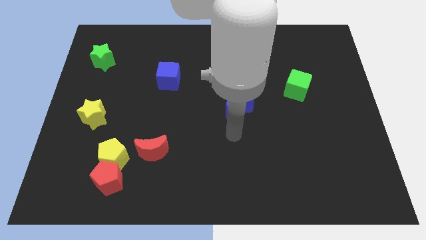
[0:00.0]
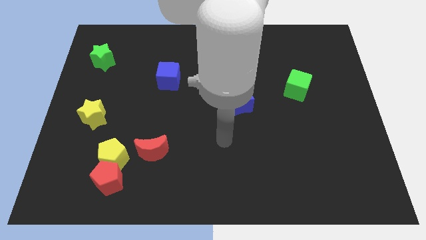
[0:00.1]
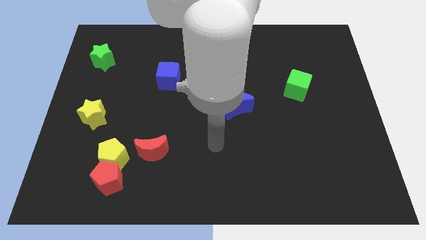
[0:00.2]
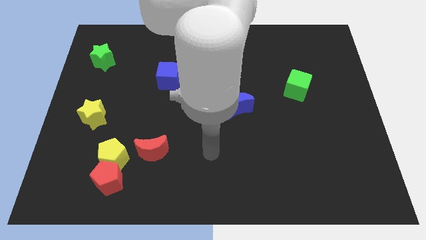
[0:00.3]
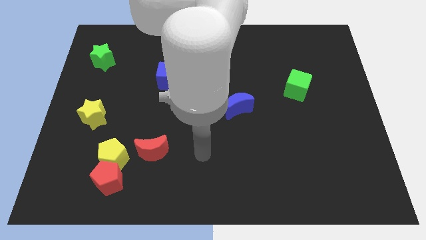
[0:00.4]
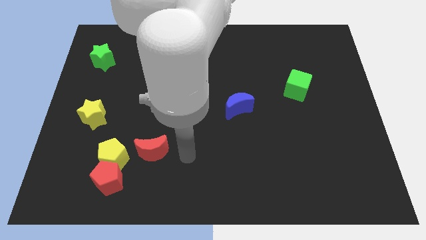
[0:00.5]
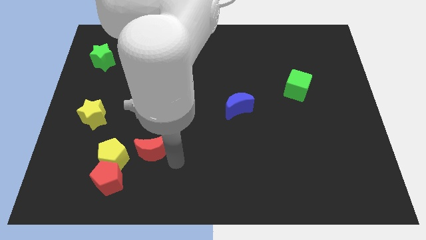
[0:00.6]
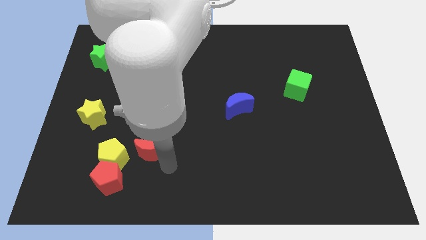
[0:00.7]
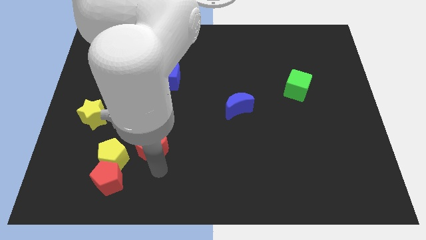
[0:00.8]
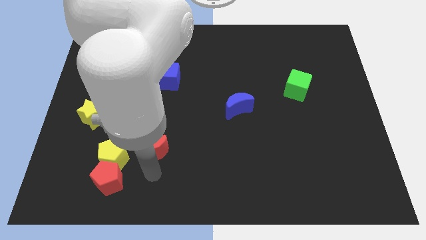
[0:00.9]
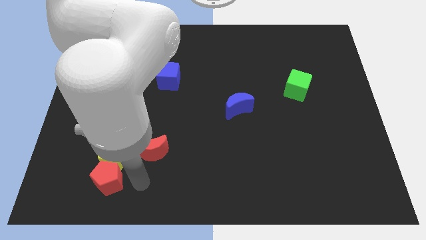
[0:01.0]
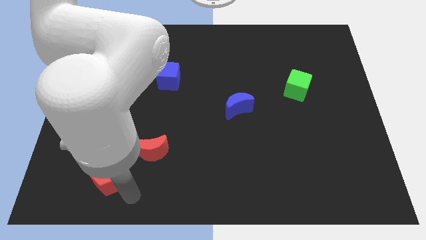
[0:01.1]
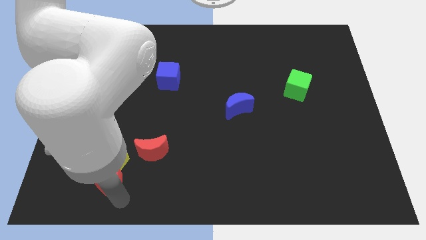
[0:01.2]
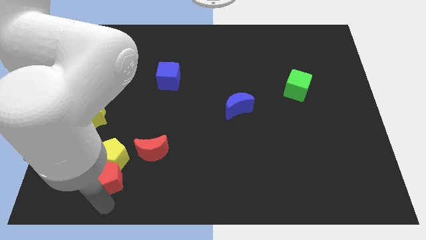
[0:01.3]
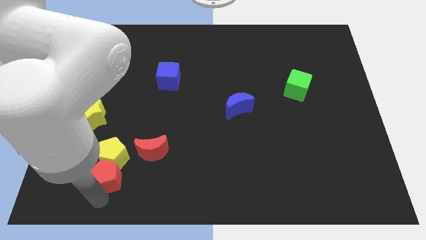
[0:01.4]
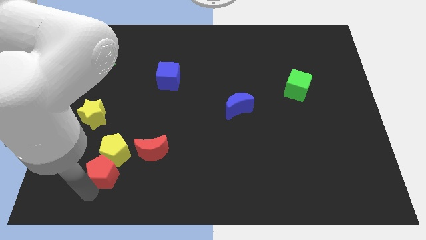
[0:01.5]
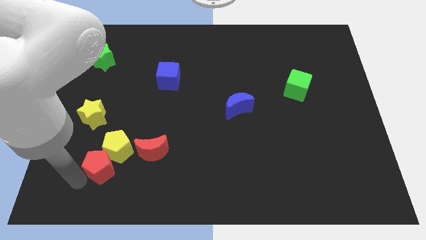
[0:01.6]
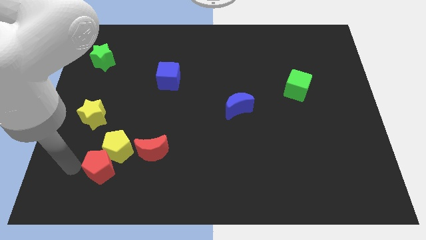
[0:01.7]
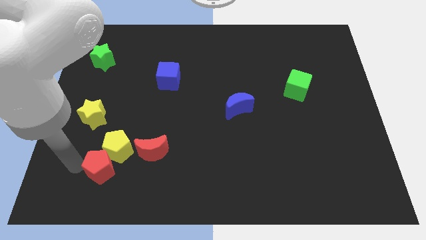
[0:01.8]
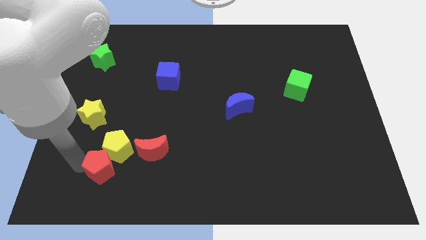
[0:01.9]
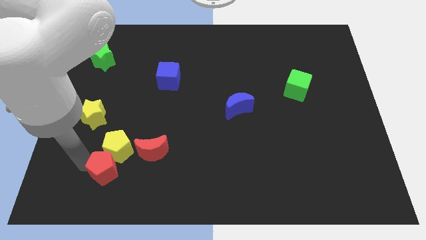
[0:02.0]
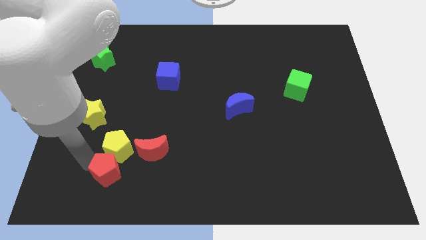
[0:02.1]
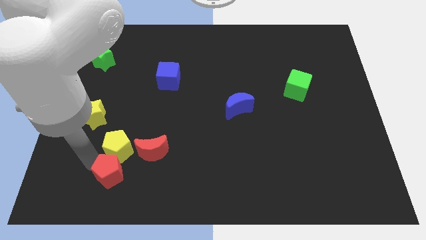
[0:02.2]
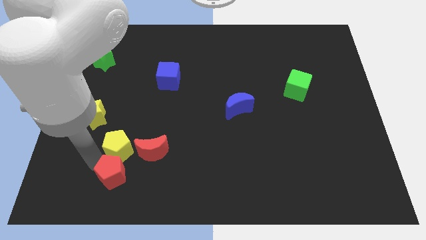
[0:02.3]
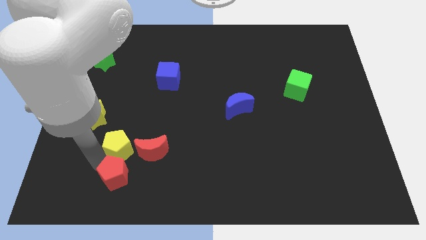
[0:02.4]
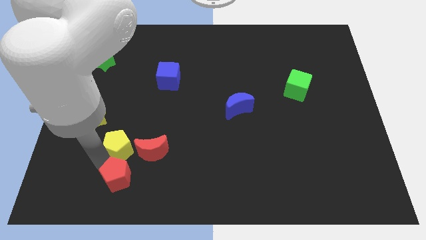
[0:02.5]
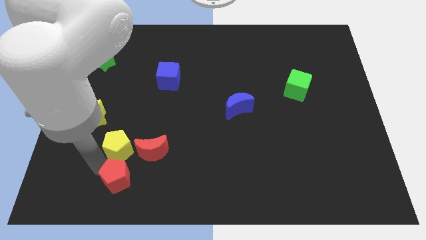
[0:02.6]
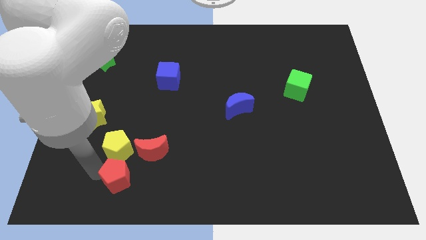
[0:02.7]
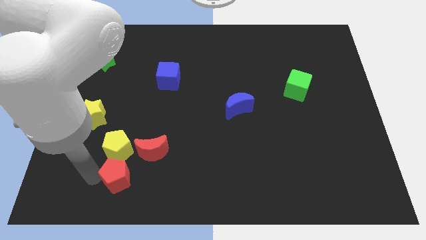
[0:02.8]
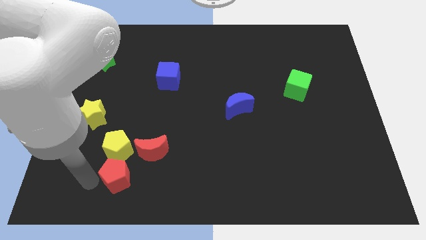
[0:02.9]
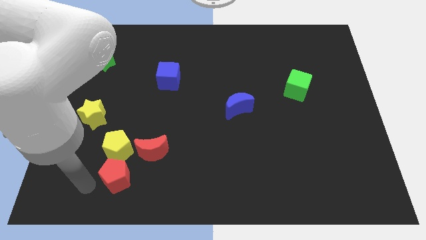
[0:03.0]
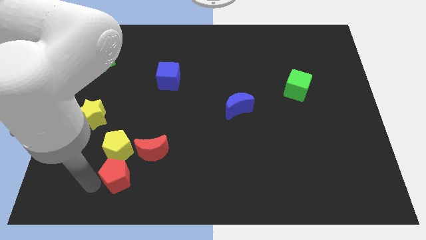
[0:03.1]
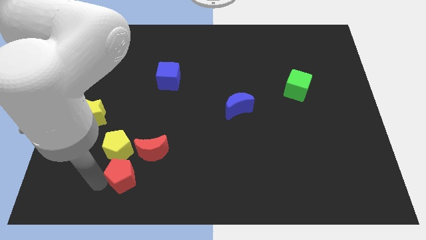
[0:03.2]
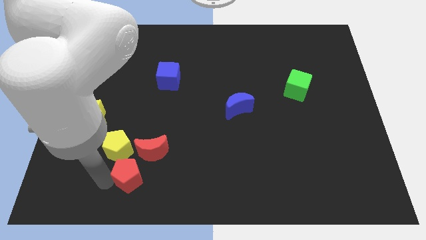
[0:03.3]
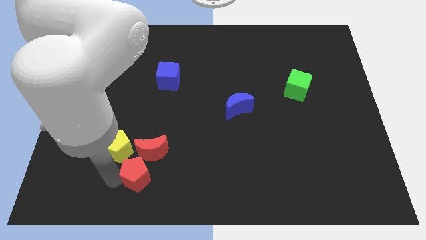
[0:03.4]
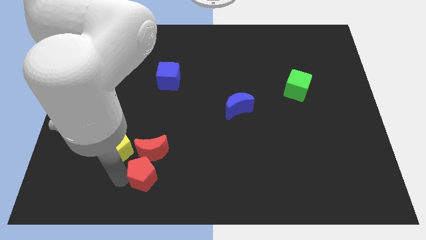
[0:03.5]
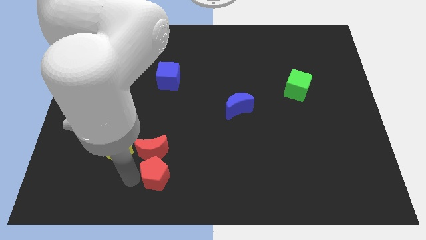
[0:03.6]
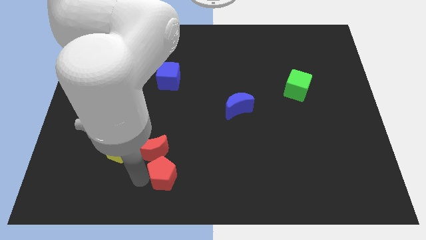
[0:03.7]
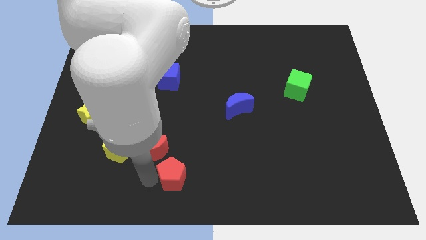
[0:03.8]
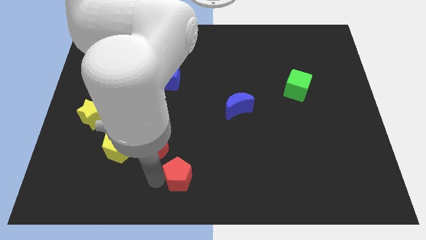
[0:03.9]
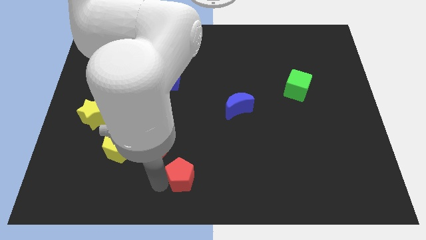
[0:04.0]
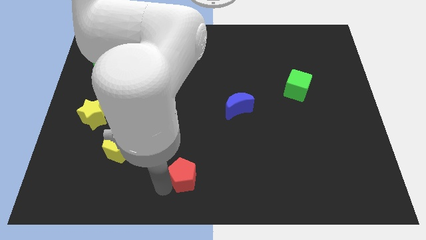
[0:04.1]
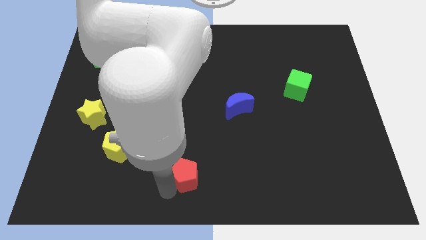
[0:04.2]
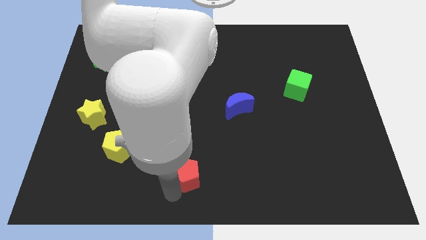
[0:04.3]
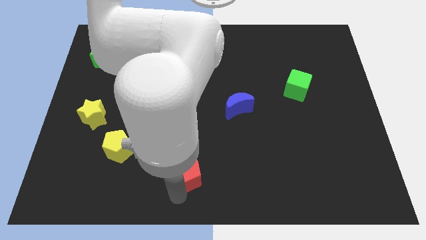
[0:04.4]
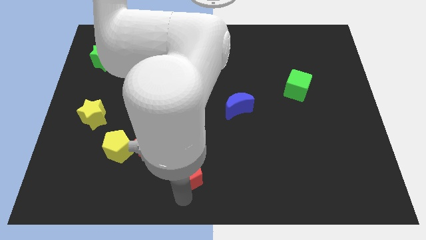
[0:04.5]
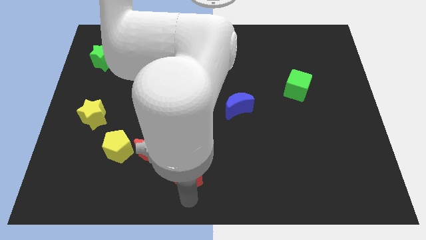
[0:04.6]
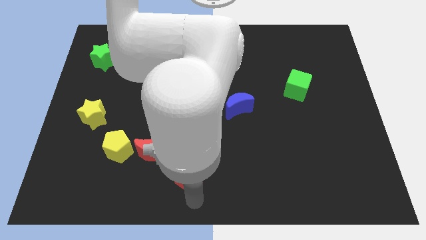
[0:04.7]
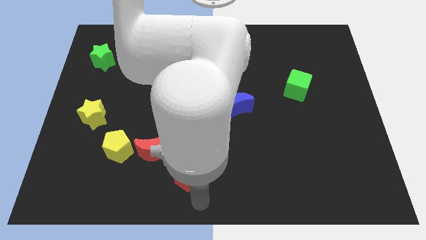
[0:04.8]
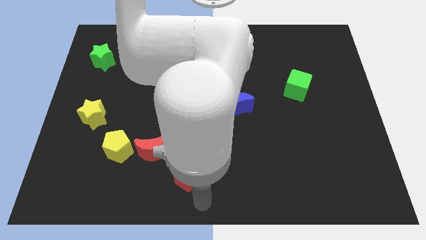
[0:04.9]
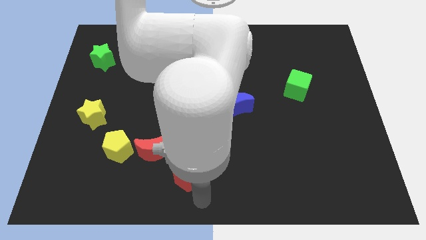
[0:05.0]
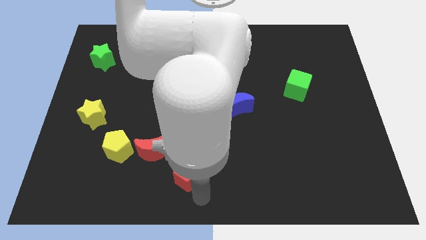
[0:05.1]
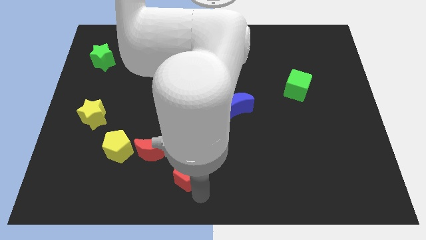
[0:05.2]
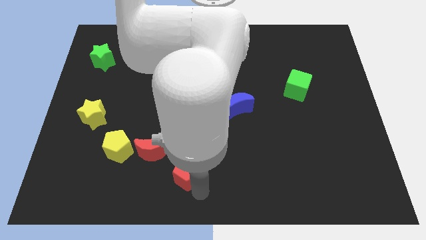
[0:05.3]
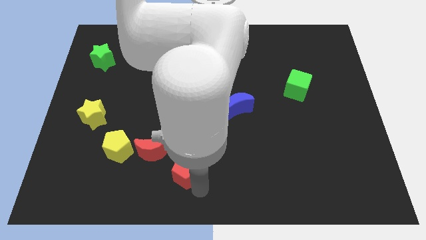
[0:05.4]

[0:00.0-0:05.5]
put the red pentagon right of the red moon

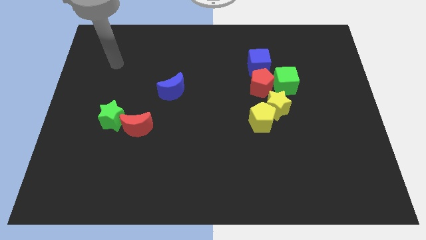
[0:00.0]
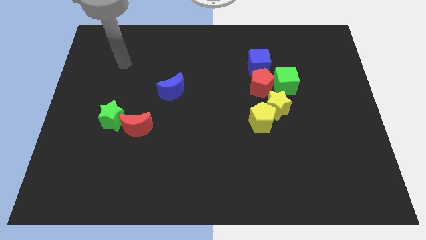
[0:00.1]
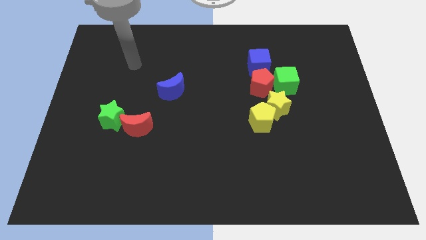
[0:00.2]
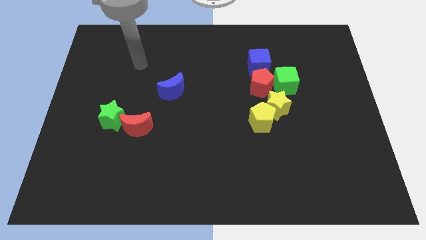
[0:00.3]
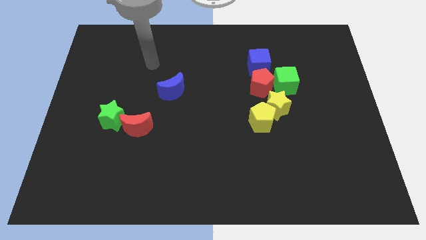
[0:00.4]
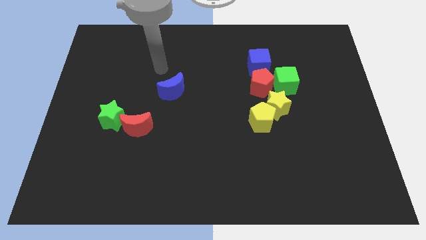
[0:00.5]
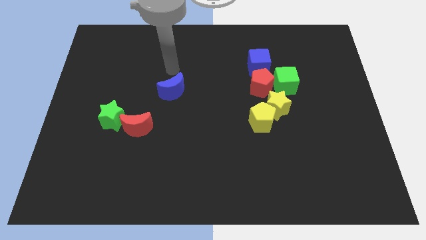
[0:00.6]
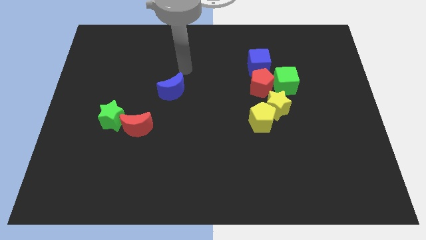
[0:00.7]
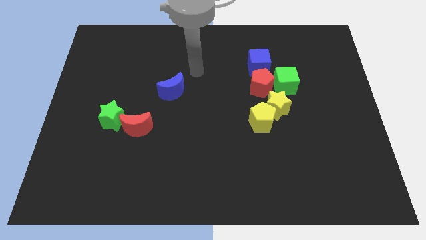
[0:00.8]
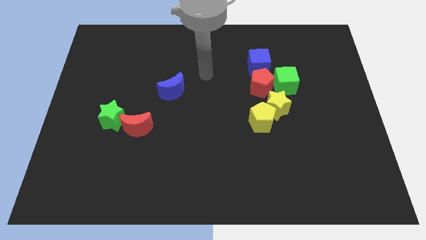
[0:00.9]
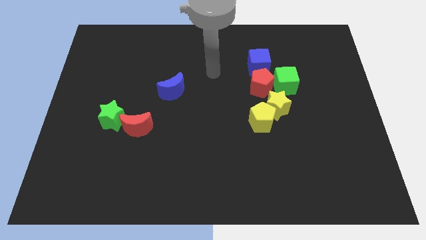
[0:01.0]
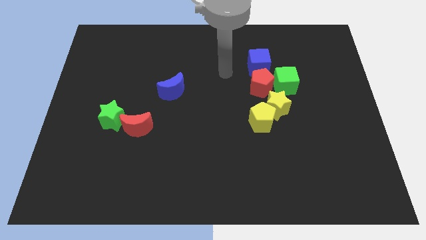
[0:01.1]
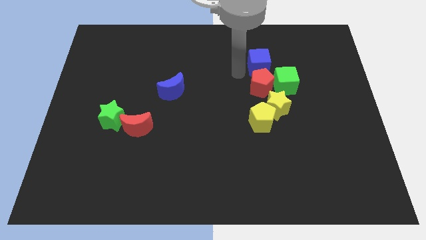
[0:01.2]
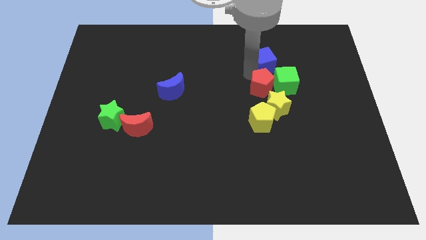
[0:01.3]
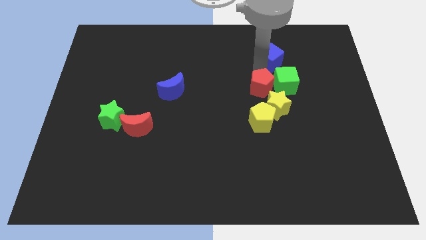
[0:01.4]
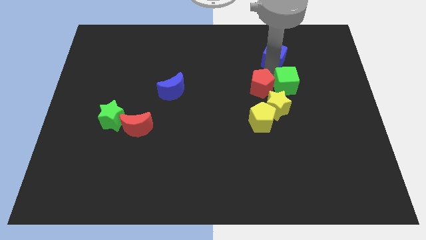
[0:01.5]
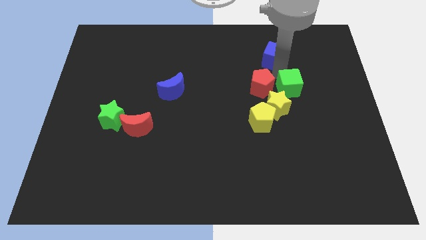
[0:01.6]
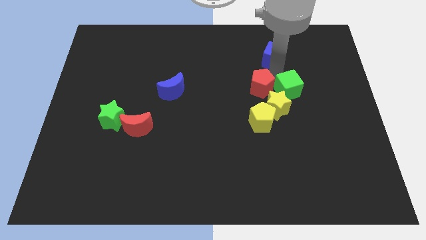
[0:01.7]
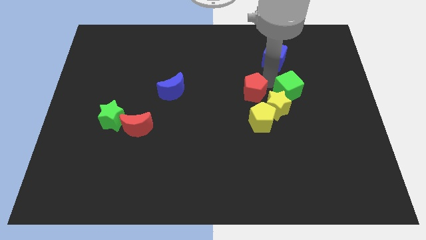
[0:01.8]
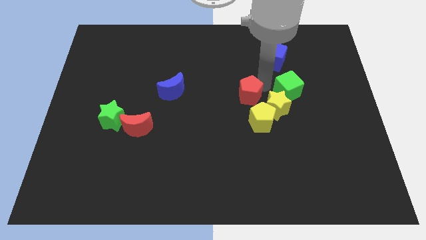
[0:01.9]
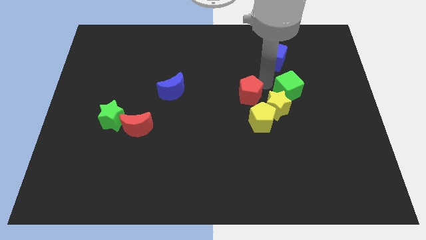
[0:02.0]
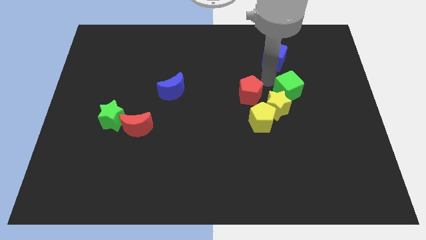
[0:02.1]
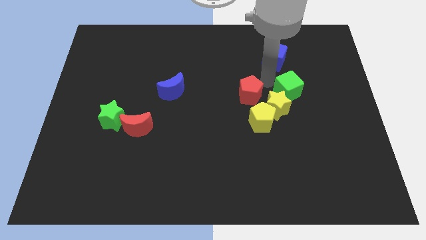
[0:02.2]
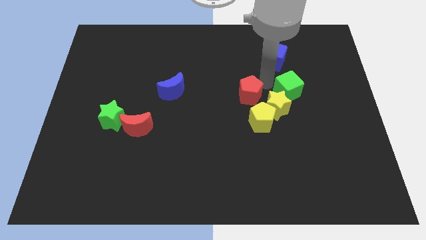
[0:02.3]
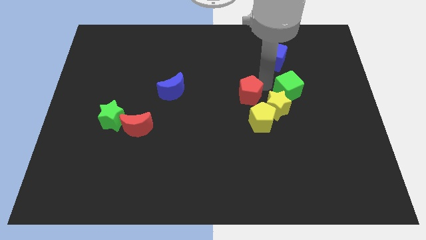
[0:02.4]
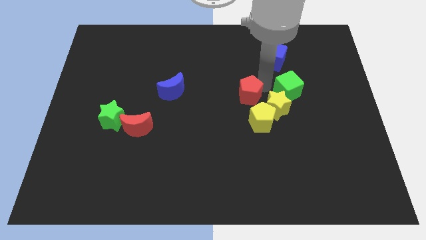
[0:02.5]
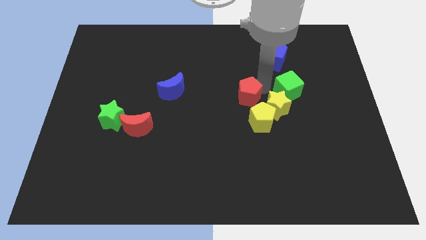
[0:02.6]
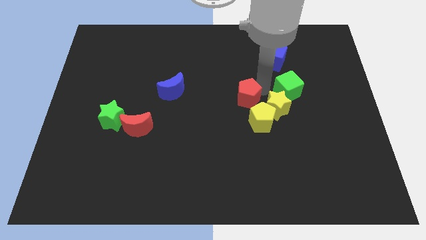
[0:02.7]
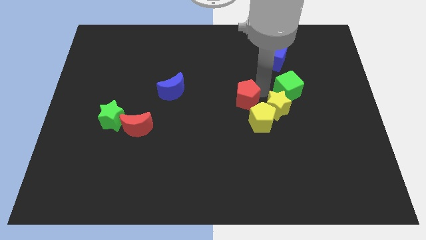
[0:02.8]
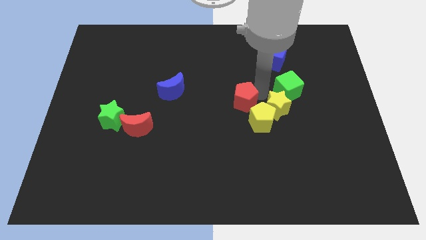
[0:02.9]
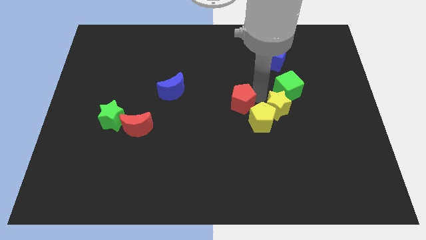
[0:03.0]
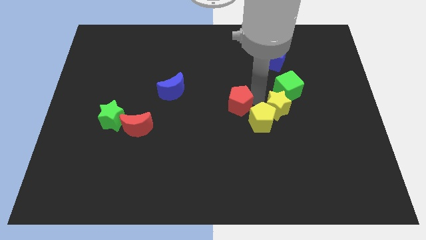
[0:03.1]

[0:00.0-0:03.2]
slide the red pentagon to the left side of the yellow pentagon
